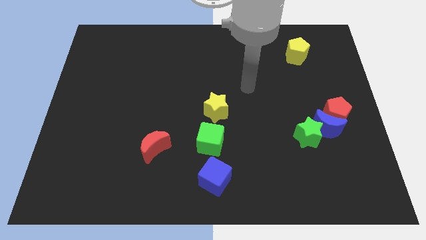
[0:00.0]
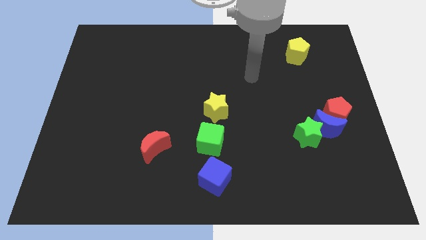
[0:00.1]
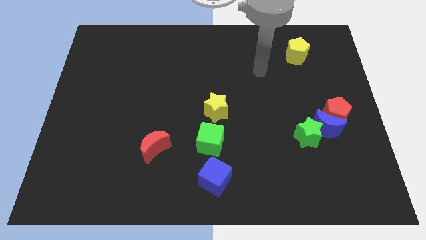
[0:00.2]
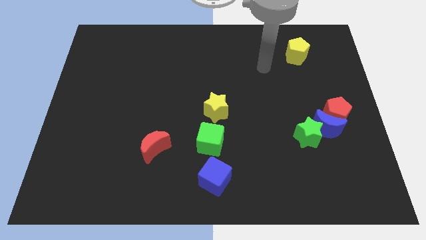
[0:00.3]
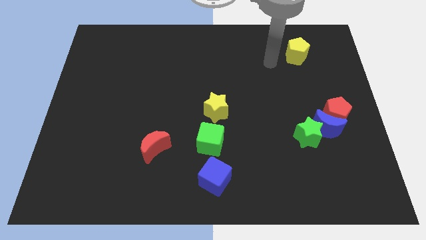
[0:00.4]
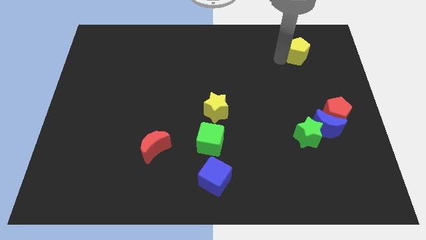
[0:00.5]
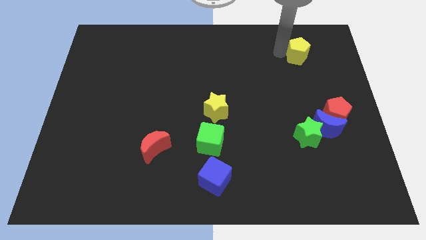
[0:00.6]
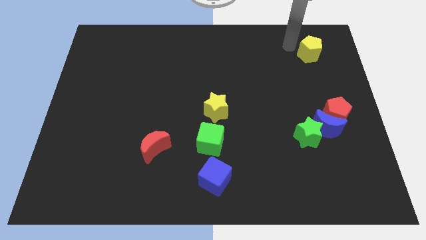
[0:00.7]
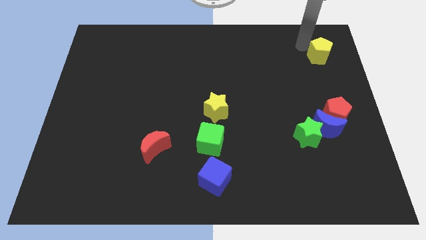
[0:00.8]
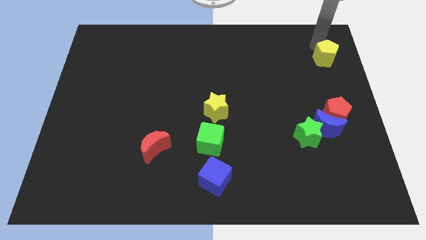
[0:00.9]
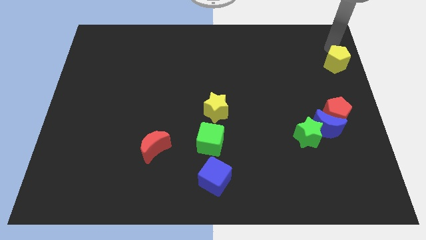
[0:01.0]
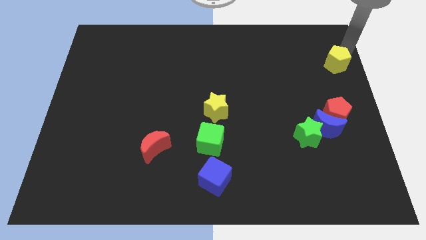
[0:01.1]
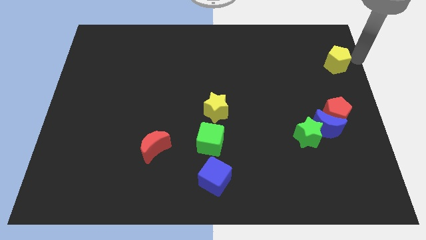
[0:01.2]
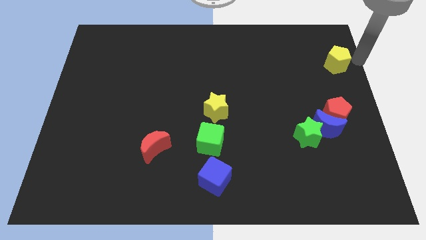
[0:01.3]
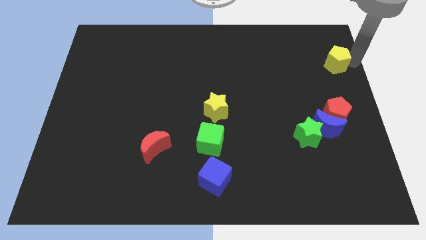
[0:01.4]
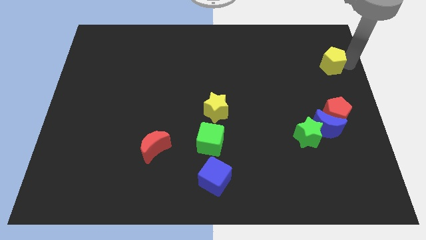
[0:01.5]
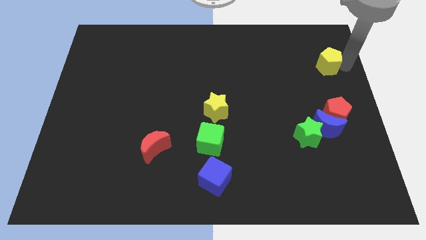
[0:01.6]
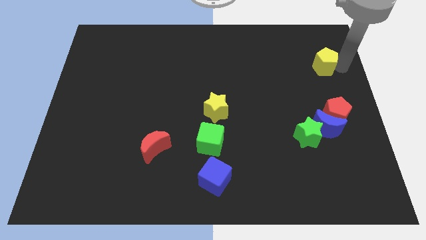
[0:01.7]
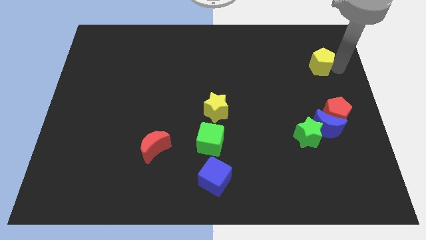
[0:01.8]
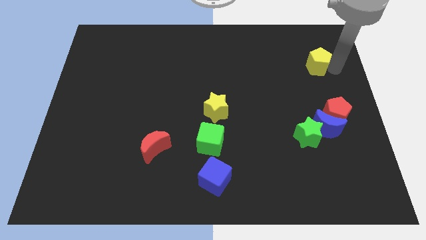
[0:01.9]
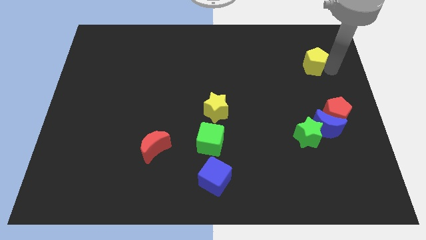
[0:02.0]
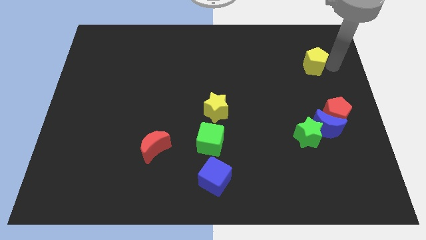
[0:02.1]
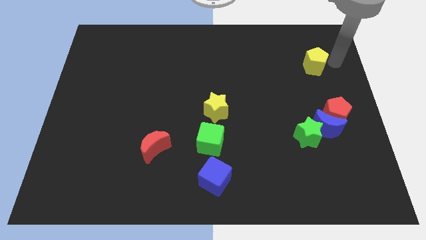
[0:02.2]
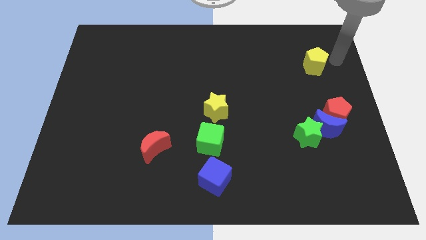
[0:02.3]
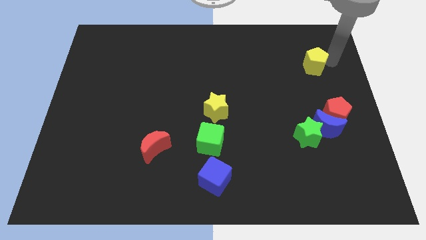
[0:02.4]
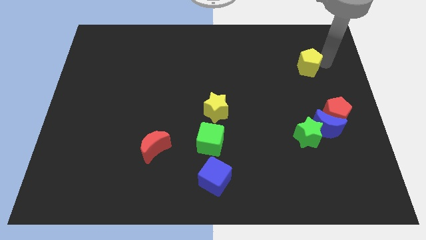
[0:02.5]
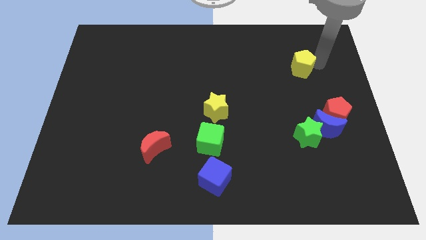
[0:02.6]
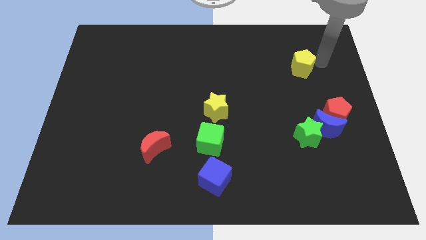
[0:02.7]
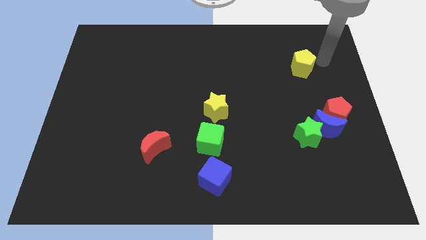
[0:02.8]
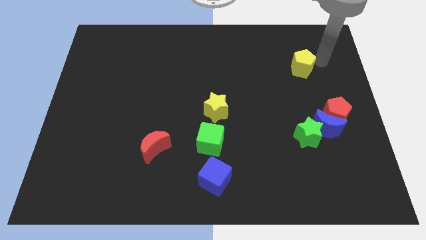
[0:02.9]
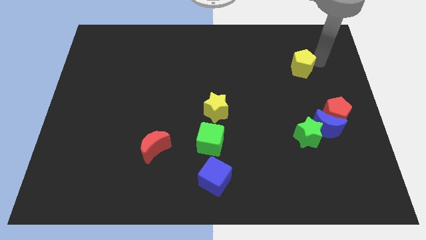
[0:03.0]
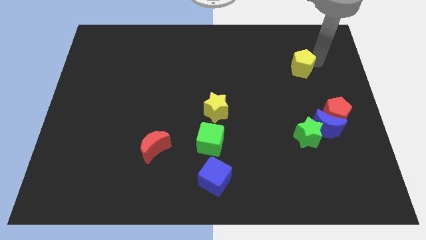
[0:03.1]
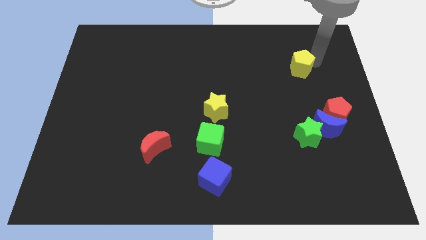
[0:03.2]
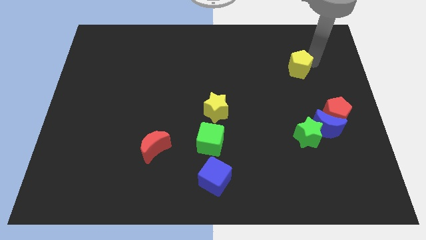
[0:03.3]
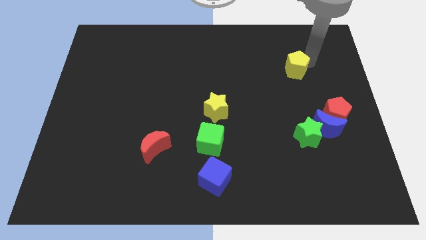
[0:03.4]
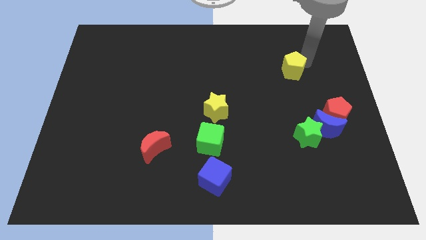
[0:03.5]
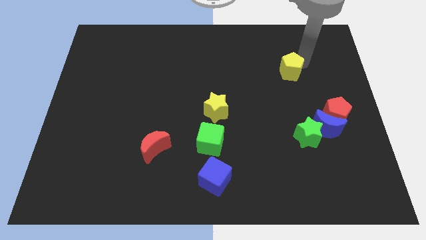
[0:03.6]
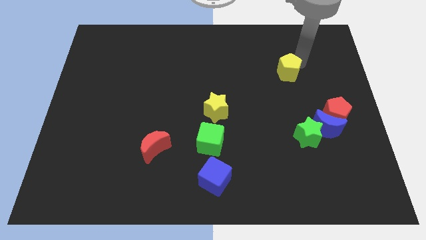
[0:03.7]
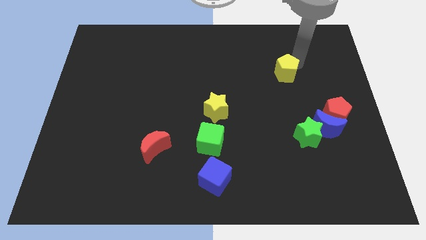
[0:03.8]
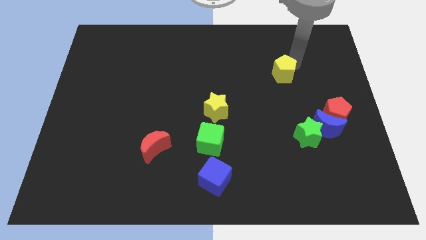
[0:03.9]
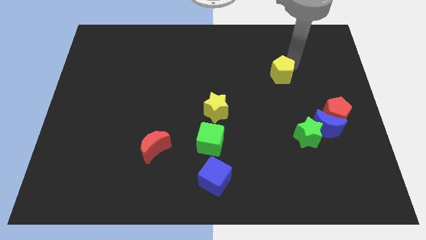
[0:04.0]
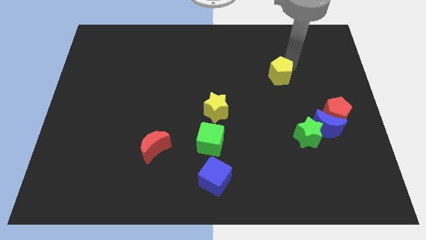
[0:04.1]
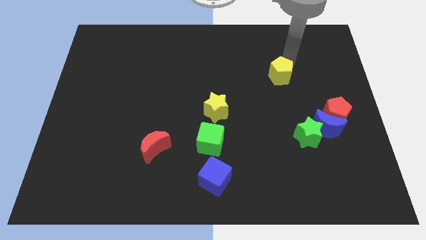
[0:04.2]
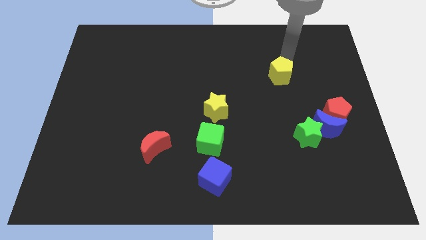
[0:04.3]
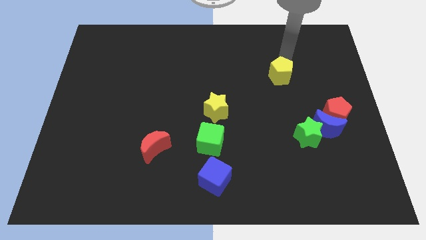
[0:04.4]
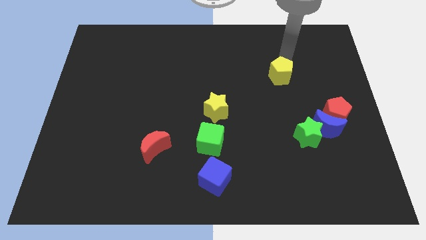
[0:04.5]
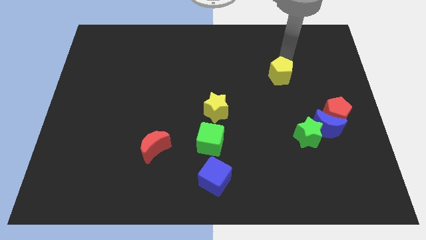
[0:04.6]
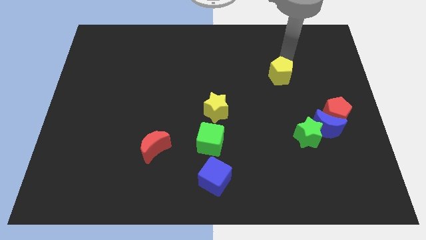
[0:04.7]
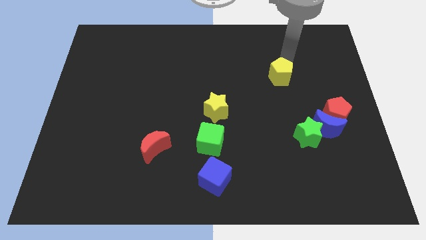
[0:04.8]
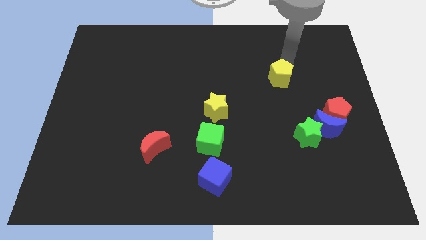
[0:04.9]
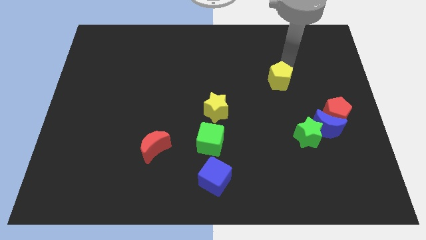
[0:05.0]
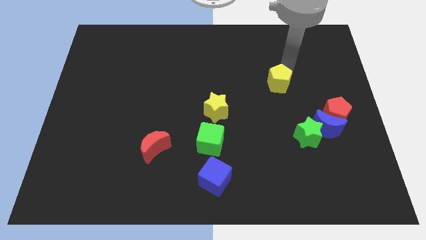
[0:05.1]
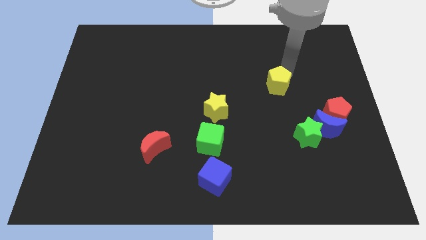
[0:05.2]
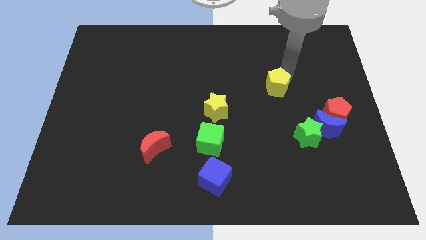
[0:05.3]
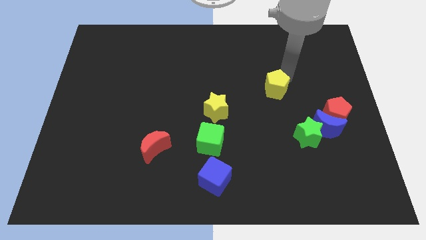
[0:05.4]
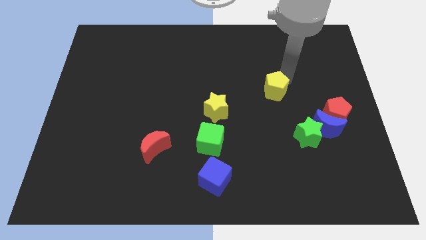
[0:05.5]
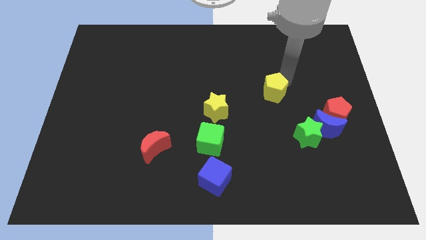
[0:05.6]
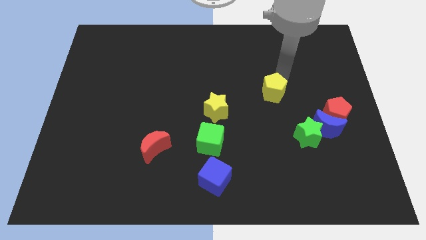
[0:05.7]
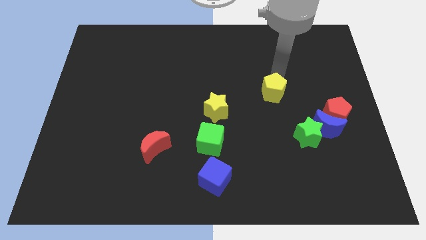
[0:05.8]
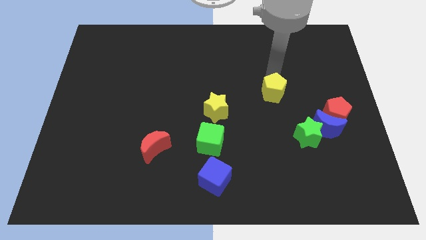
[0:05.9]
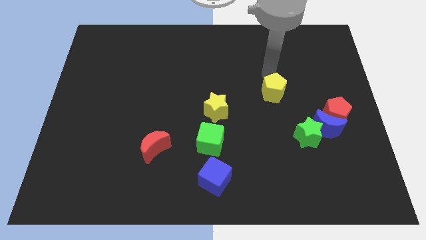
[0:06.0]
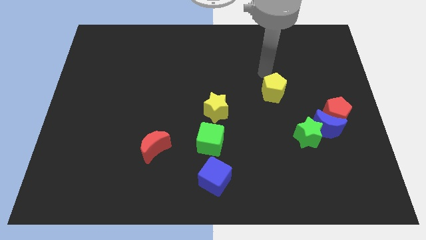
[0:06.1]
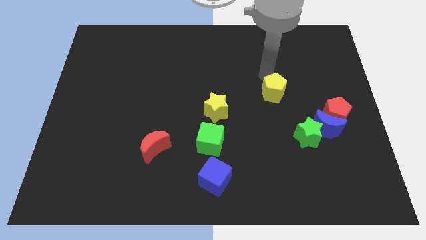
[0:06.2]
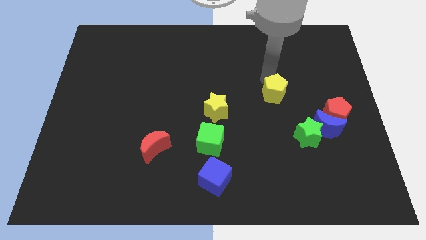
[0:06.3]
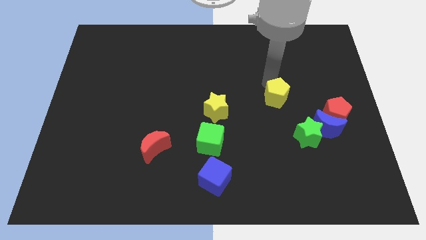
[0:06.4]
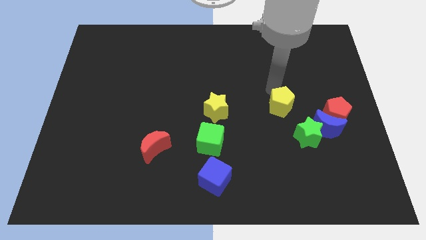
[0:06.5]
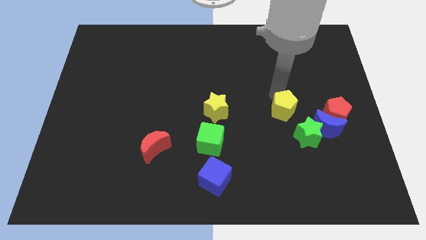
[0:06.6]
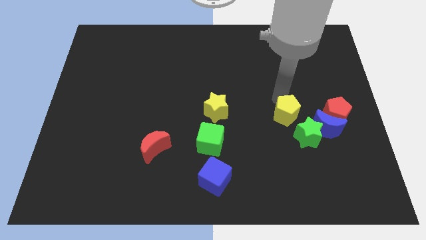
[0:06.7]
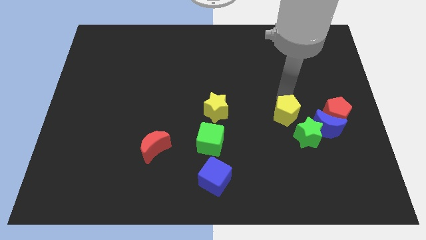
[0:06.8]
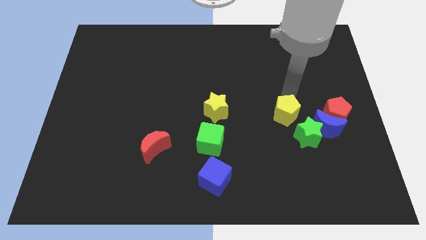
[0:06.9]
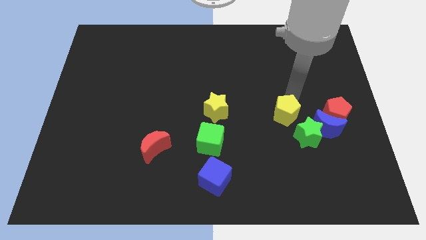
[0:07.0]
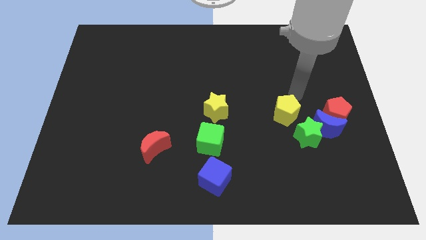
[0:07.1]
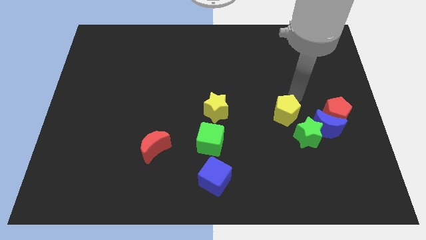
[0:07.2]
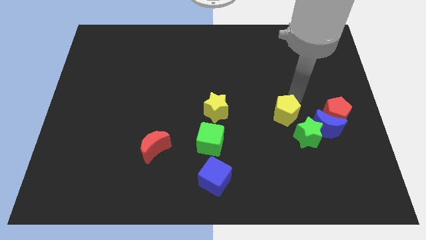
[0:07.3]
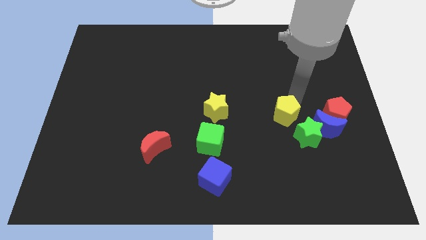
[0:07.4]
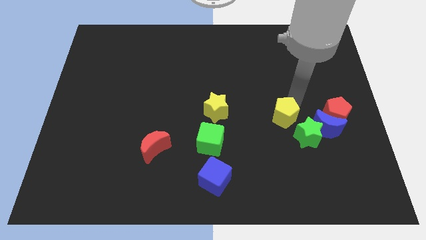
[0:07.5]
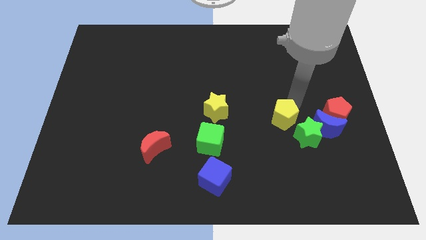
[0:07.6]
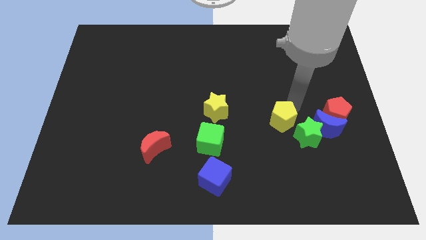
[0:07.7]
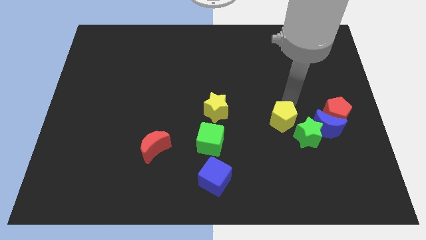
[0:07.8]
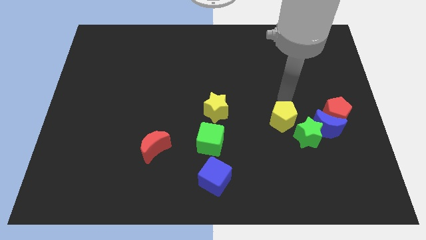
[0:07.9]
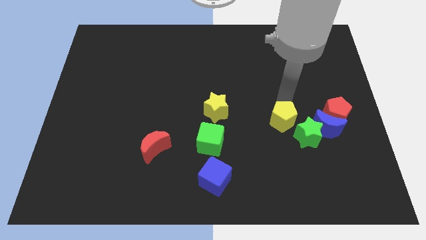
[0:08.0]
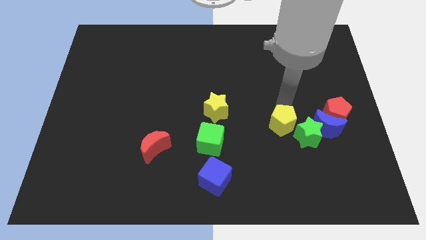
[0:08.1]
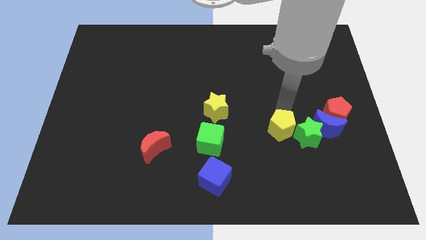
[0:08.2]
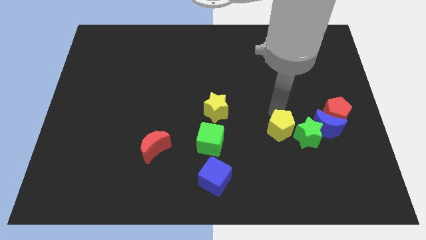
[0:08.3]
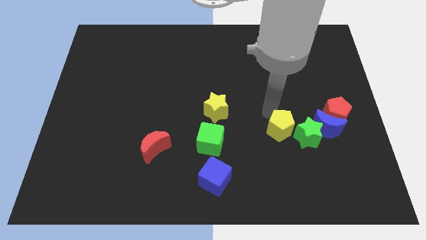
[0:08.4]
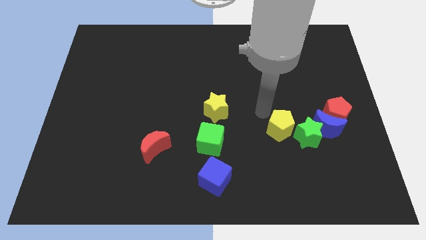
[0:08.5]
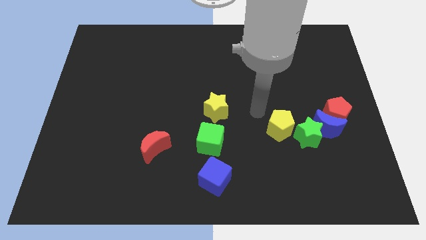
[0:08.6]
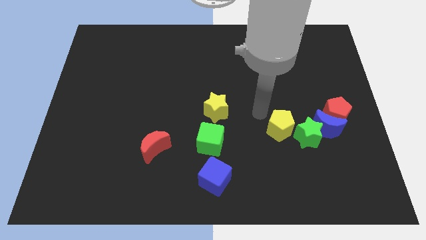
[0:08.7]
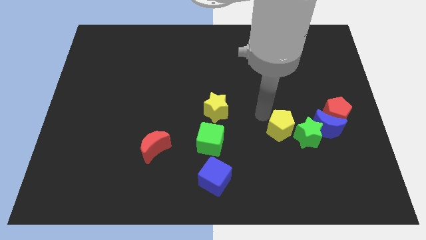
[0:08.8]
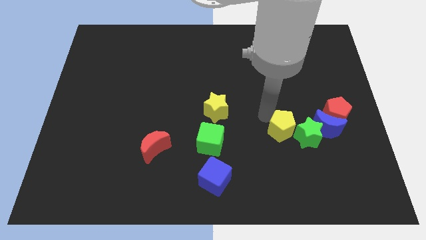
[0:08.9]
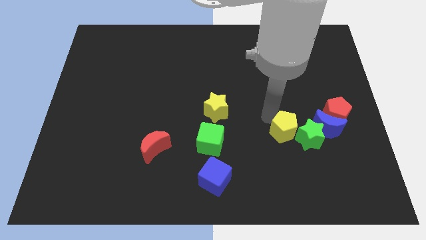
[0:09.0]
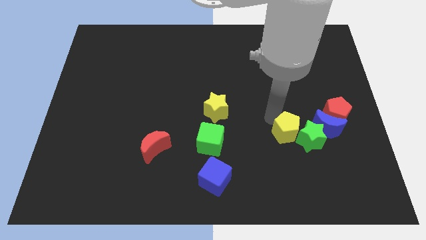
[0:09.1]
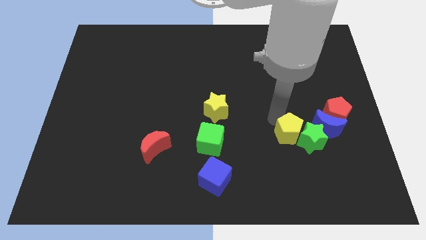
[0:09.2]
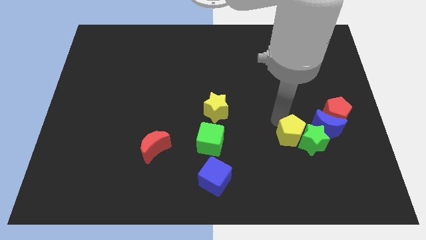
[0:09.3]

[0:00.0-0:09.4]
push the yellow pentagon to the bottom left of the blue moon
